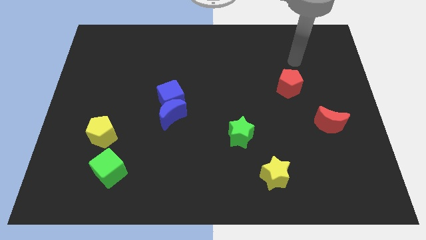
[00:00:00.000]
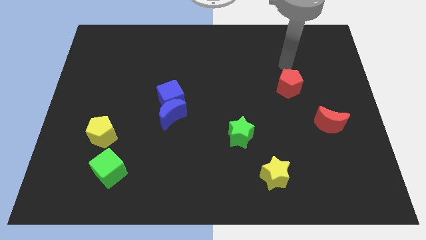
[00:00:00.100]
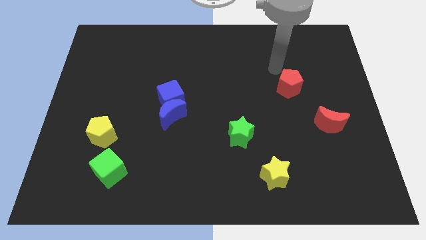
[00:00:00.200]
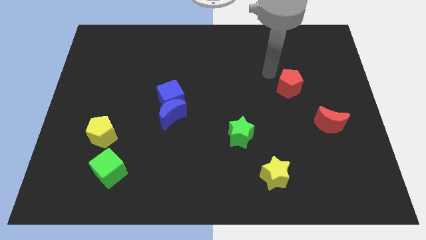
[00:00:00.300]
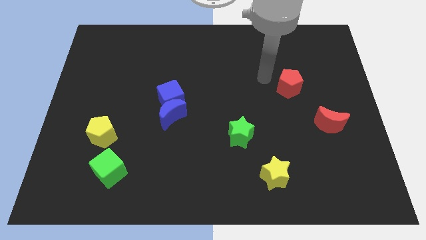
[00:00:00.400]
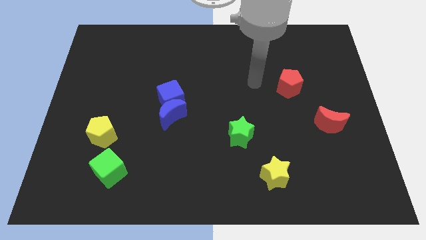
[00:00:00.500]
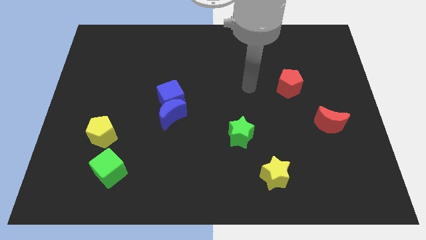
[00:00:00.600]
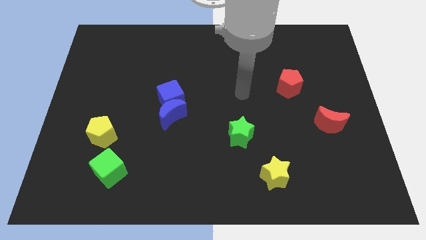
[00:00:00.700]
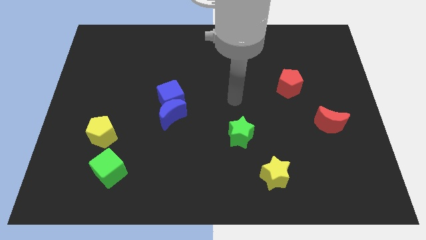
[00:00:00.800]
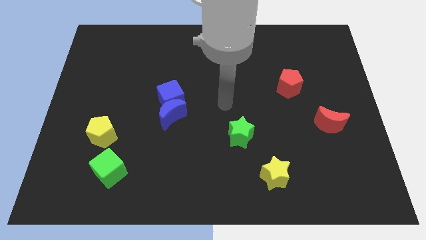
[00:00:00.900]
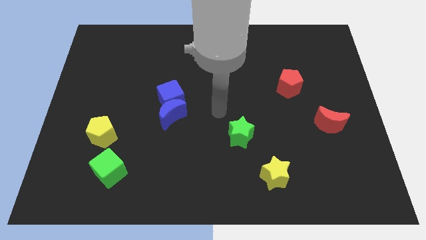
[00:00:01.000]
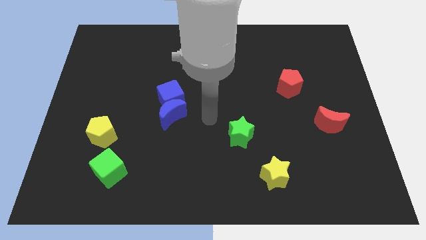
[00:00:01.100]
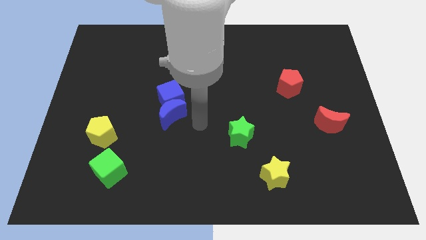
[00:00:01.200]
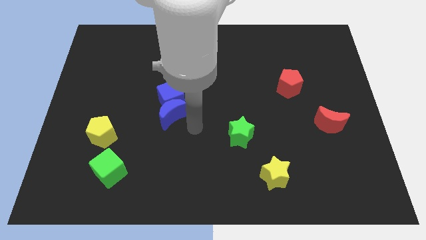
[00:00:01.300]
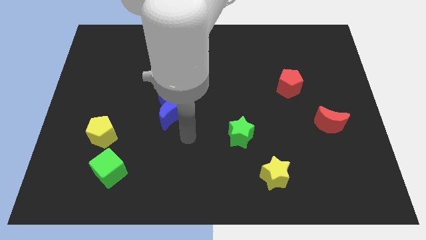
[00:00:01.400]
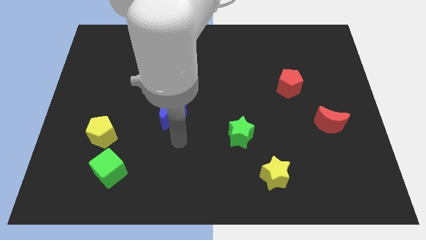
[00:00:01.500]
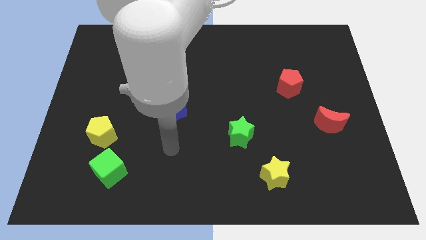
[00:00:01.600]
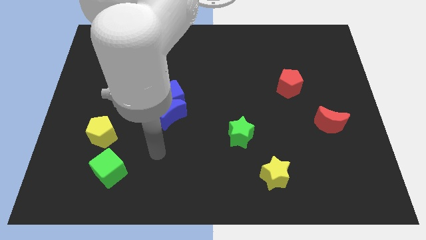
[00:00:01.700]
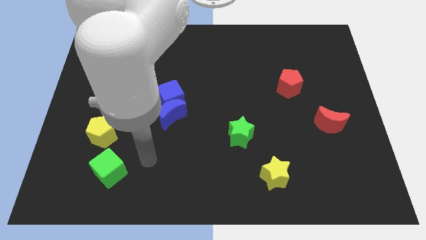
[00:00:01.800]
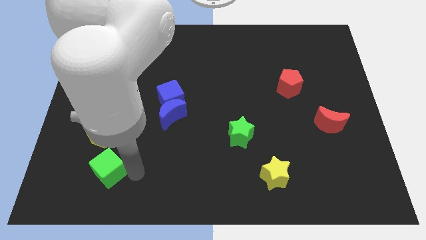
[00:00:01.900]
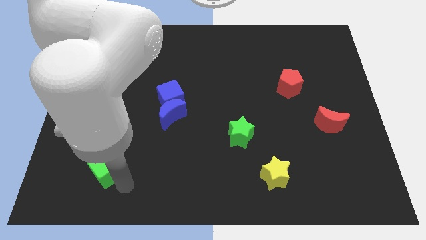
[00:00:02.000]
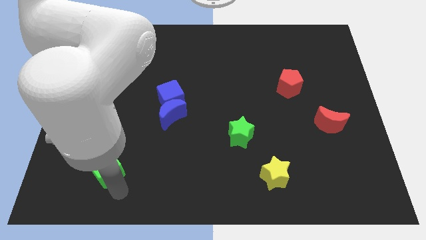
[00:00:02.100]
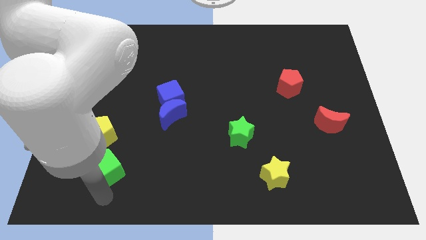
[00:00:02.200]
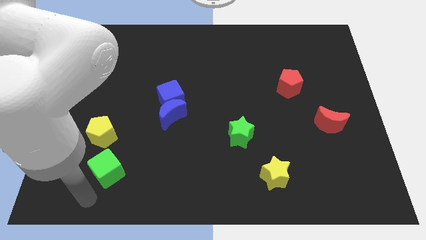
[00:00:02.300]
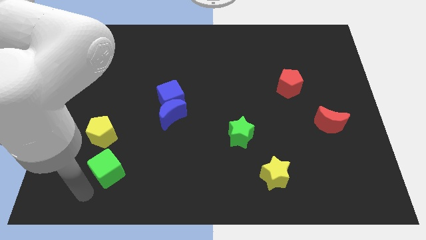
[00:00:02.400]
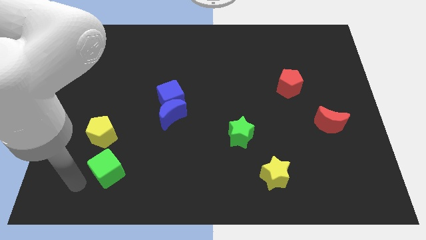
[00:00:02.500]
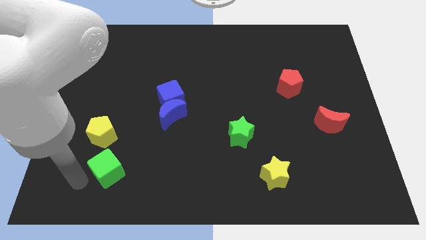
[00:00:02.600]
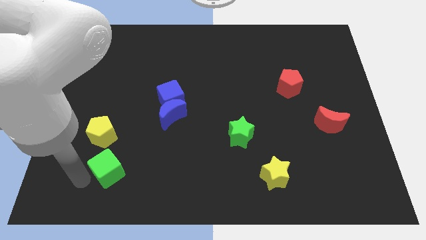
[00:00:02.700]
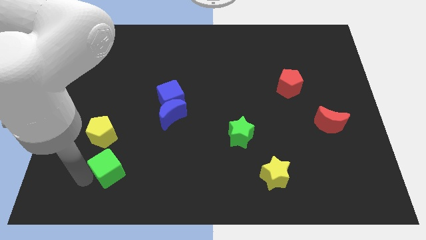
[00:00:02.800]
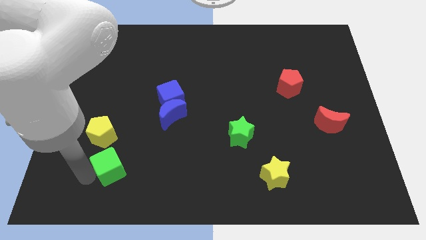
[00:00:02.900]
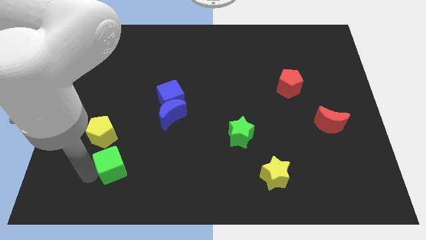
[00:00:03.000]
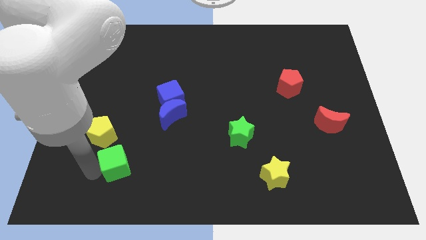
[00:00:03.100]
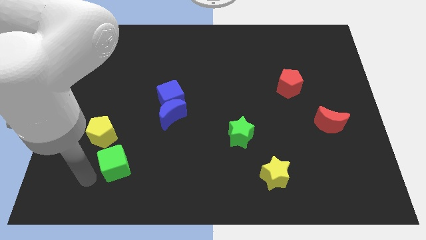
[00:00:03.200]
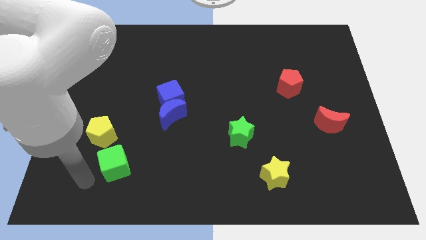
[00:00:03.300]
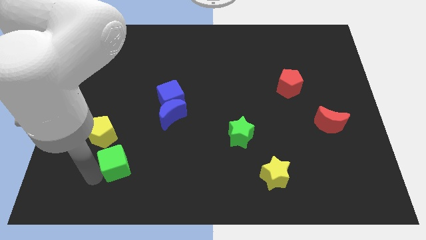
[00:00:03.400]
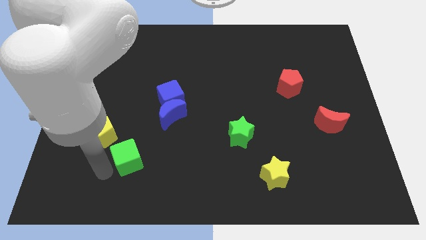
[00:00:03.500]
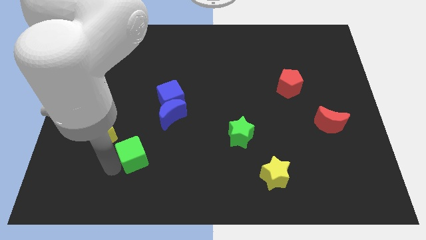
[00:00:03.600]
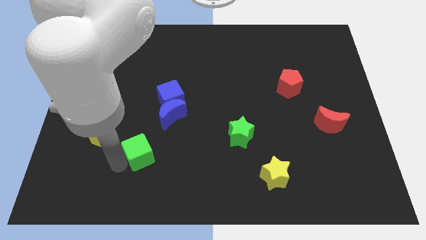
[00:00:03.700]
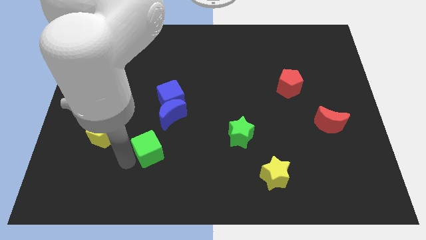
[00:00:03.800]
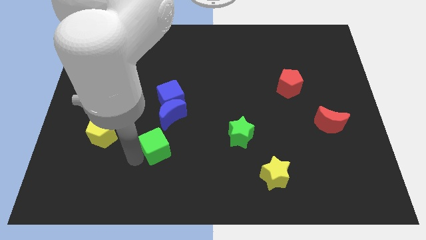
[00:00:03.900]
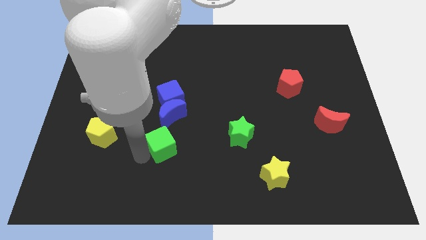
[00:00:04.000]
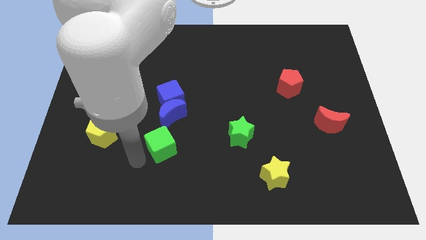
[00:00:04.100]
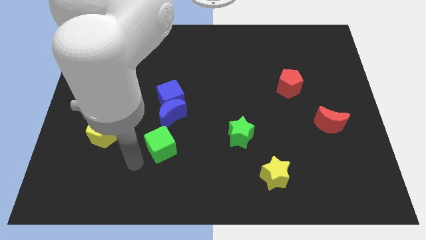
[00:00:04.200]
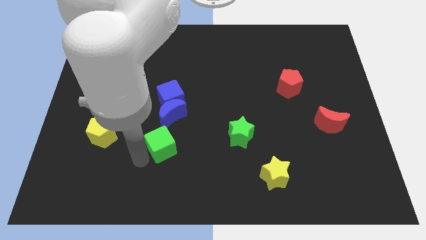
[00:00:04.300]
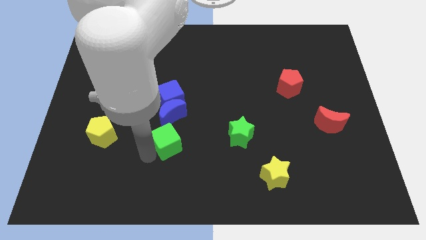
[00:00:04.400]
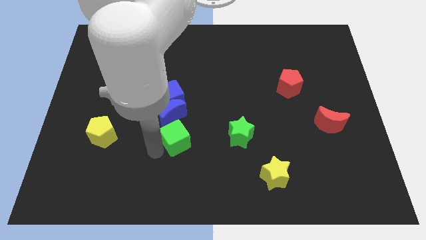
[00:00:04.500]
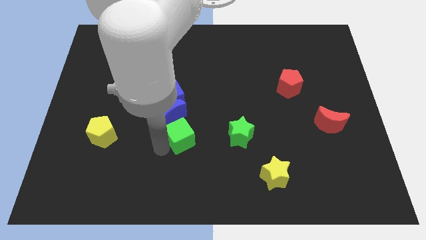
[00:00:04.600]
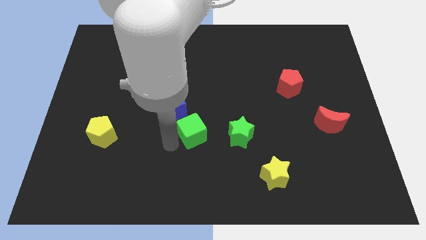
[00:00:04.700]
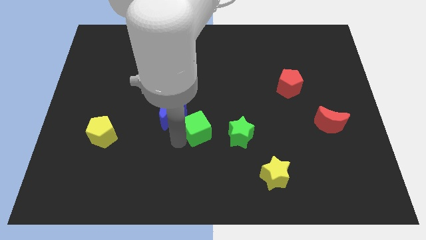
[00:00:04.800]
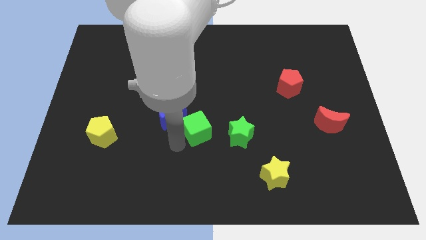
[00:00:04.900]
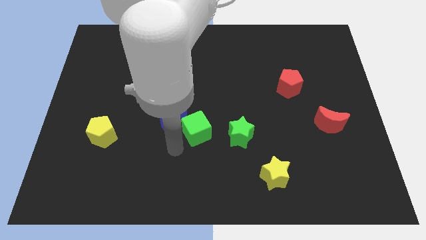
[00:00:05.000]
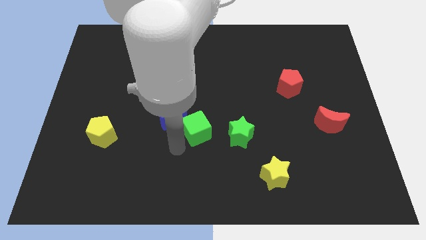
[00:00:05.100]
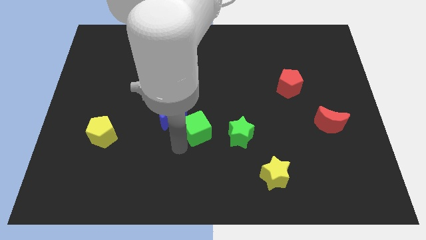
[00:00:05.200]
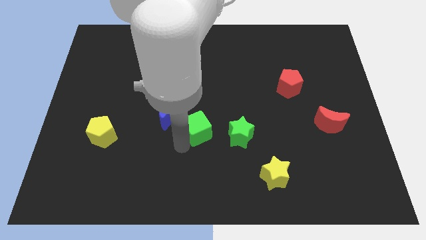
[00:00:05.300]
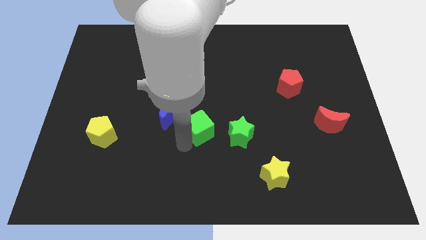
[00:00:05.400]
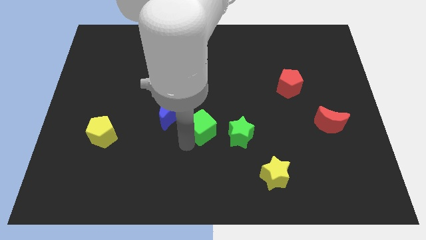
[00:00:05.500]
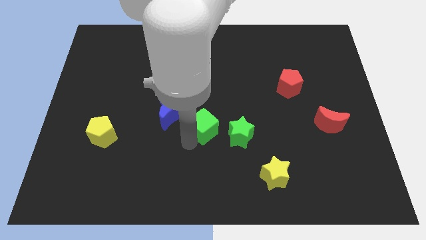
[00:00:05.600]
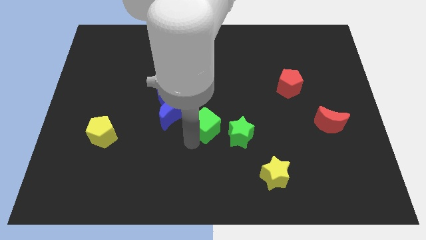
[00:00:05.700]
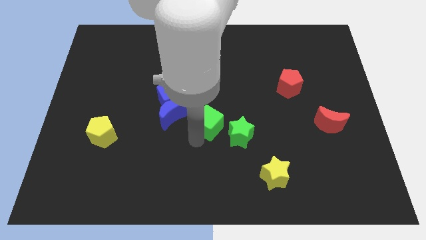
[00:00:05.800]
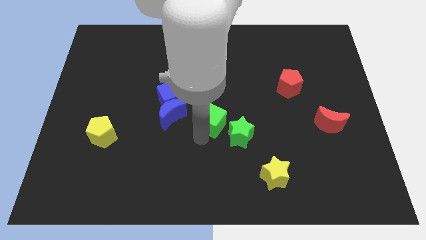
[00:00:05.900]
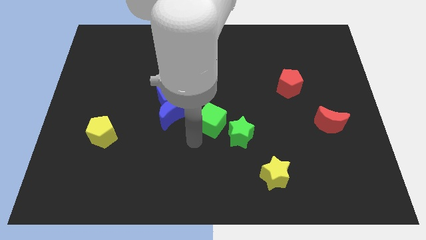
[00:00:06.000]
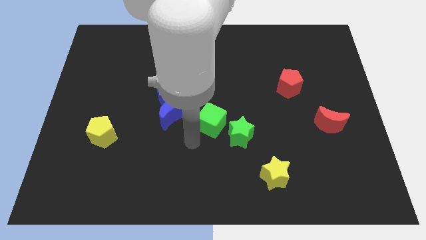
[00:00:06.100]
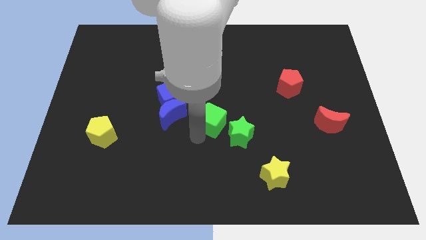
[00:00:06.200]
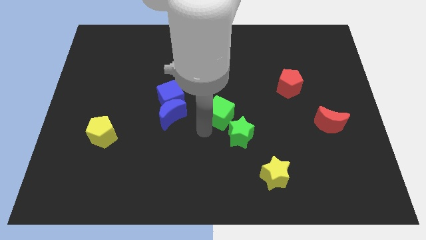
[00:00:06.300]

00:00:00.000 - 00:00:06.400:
move the green cube to the top side of the green star

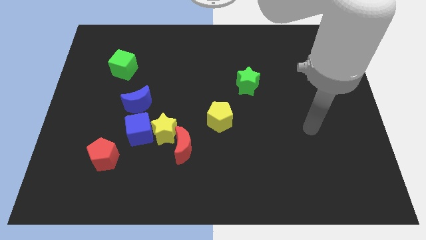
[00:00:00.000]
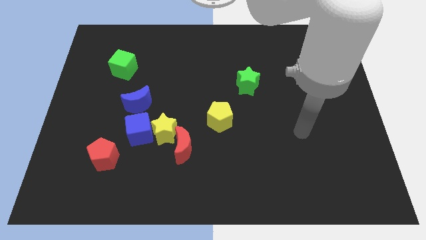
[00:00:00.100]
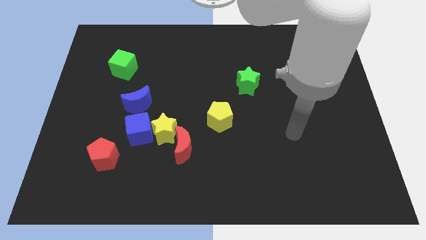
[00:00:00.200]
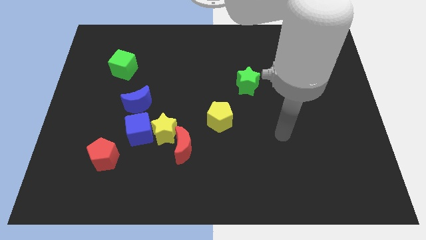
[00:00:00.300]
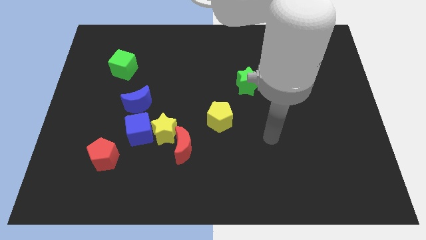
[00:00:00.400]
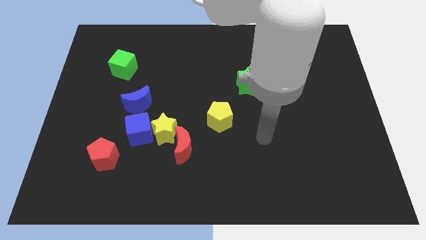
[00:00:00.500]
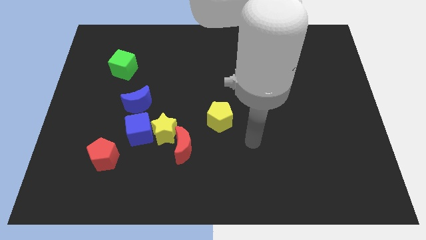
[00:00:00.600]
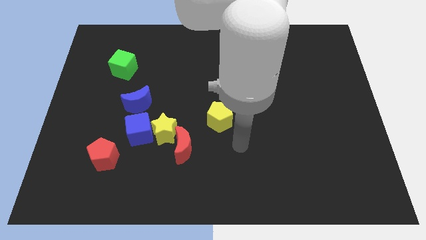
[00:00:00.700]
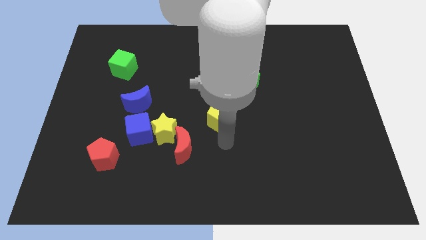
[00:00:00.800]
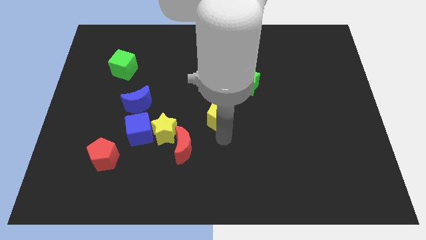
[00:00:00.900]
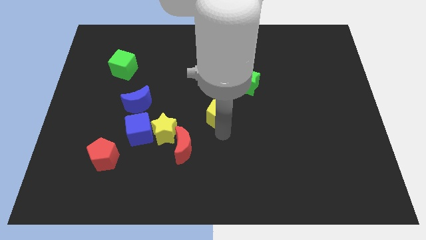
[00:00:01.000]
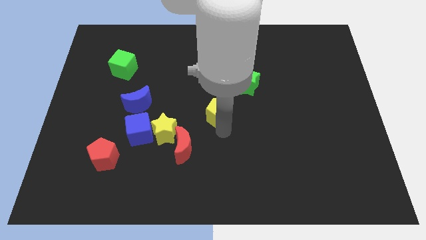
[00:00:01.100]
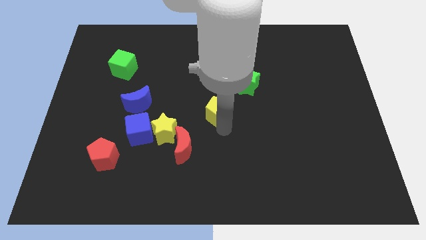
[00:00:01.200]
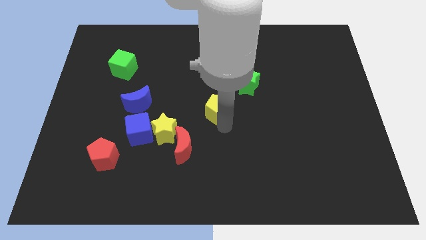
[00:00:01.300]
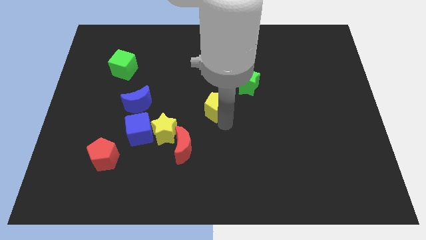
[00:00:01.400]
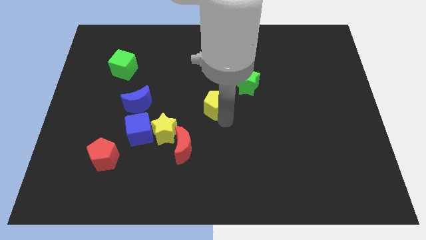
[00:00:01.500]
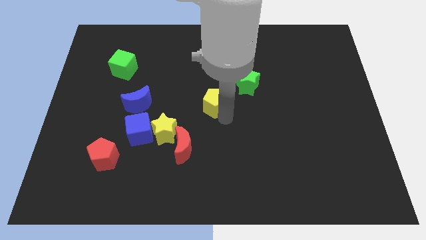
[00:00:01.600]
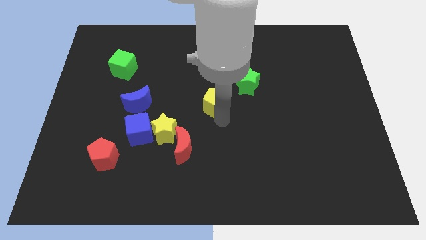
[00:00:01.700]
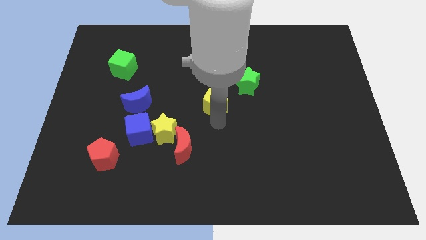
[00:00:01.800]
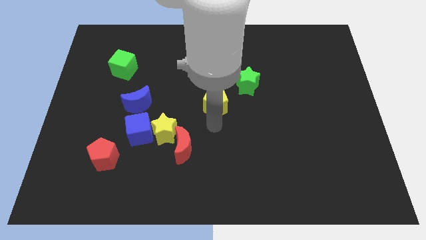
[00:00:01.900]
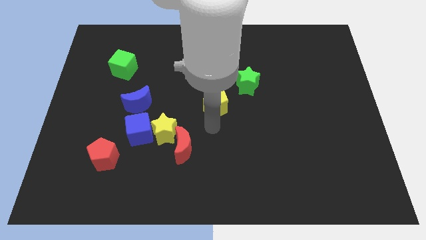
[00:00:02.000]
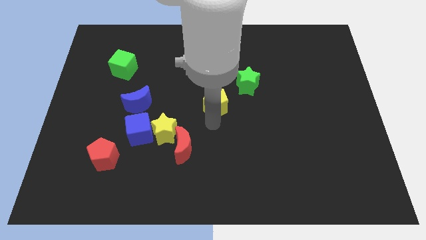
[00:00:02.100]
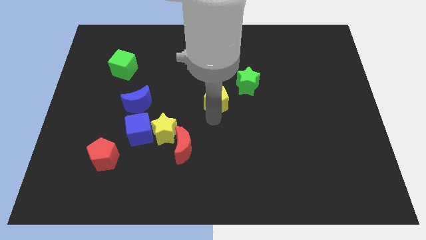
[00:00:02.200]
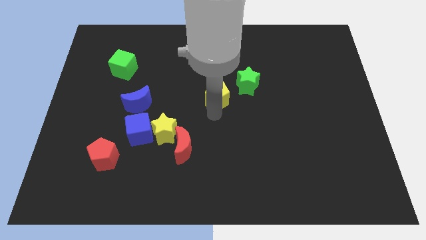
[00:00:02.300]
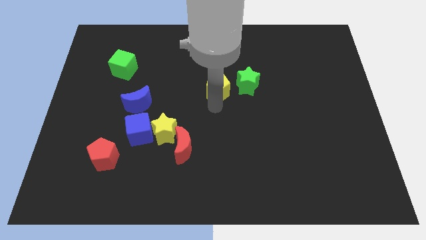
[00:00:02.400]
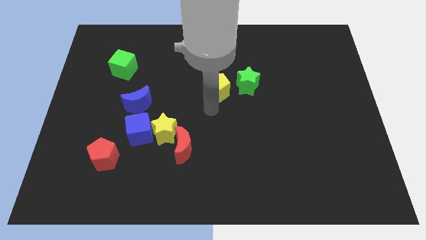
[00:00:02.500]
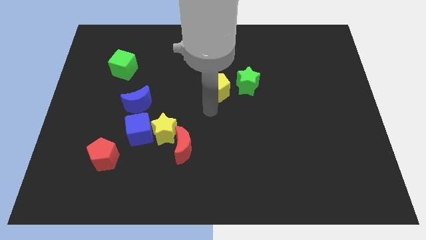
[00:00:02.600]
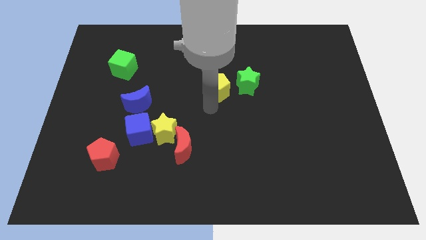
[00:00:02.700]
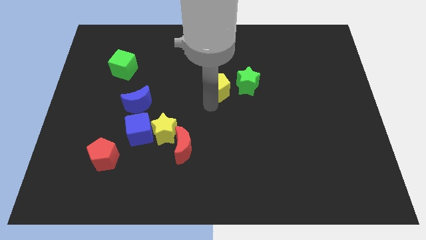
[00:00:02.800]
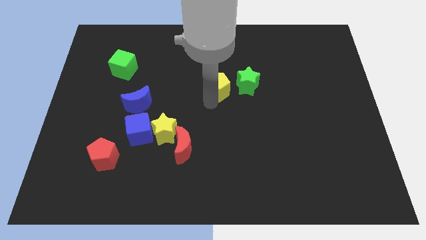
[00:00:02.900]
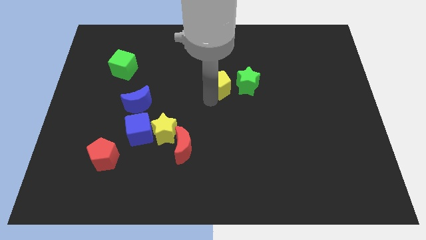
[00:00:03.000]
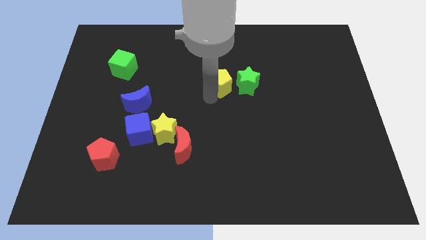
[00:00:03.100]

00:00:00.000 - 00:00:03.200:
move the yellow pentagon diagonally up and to the left of the green star
